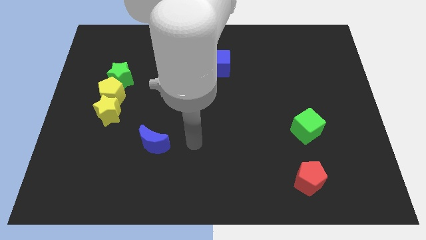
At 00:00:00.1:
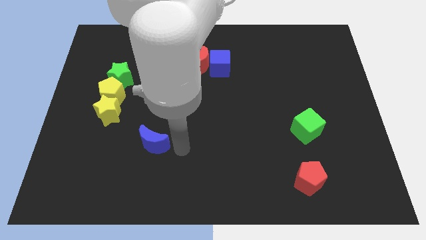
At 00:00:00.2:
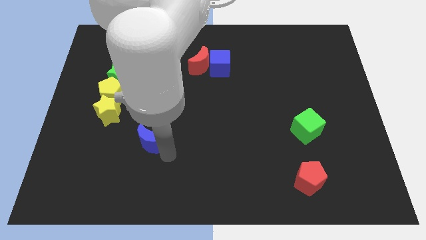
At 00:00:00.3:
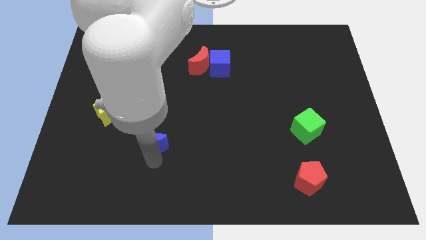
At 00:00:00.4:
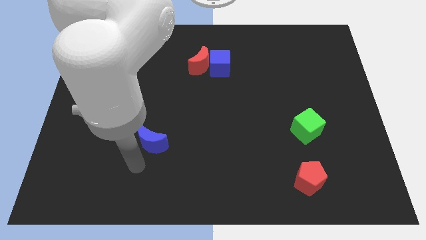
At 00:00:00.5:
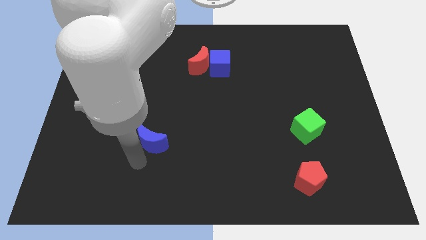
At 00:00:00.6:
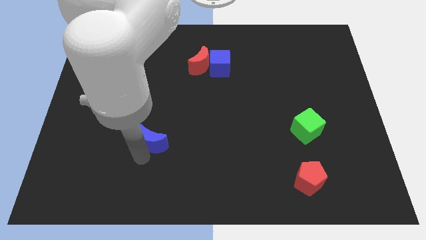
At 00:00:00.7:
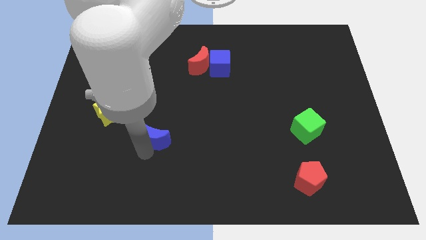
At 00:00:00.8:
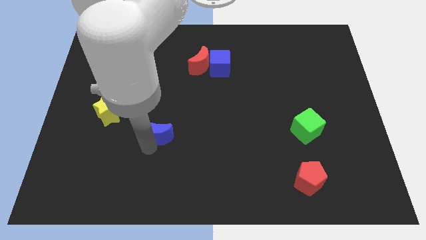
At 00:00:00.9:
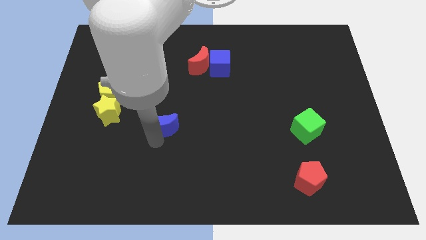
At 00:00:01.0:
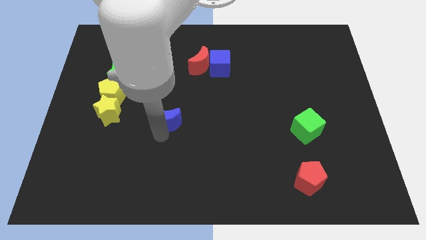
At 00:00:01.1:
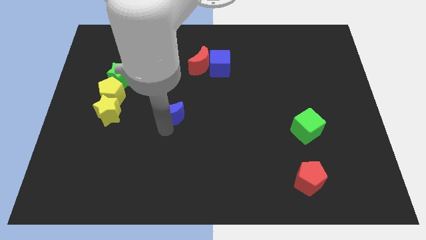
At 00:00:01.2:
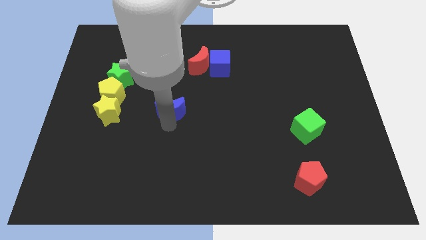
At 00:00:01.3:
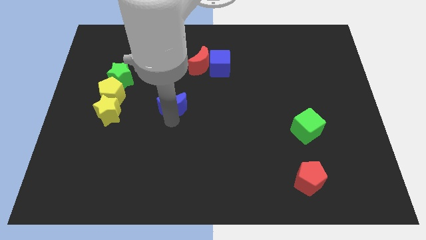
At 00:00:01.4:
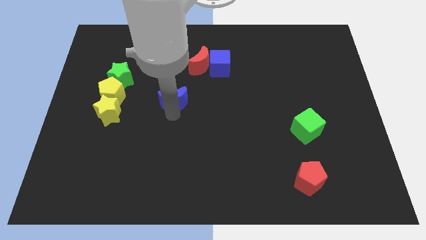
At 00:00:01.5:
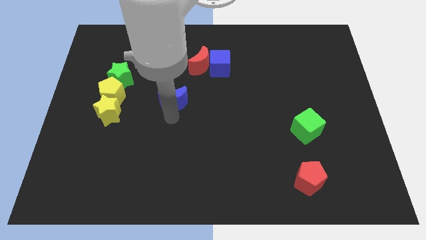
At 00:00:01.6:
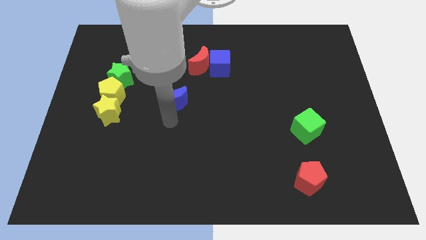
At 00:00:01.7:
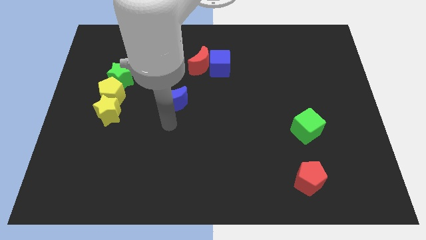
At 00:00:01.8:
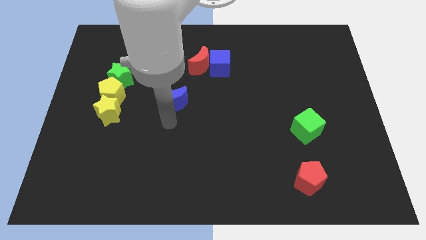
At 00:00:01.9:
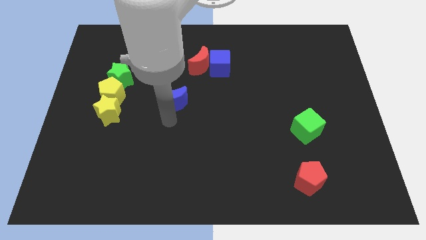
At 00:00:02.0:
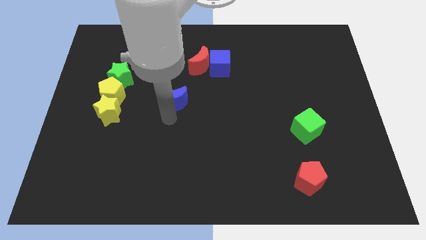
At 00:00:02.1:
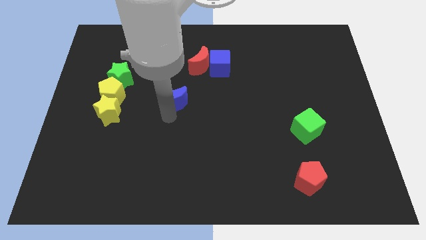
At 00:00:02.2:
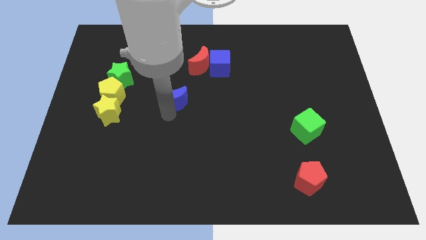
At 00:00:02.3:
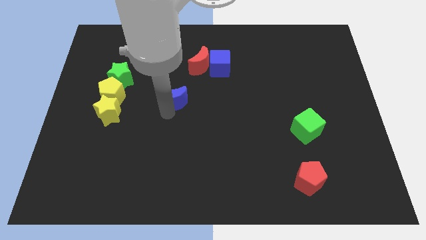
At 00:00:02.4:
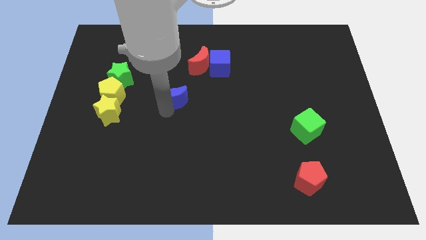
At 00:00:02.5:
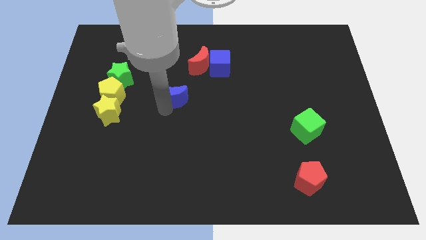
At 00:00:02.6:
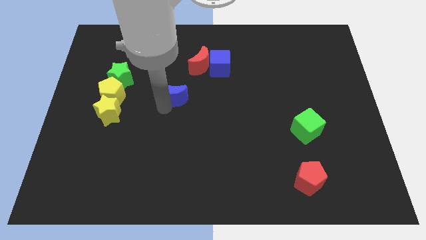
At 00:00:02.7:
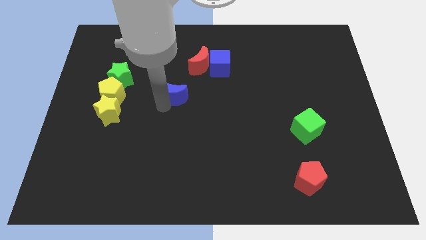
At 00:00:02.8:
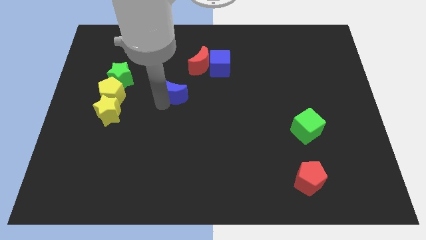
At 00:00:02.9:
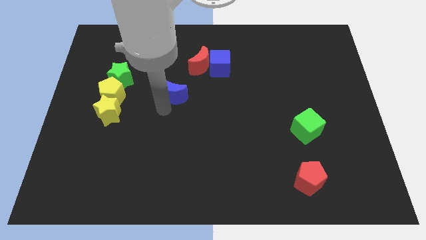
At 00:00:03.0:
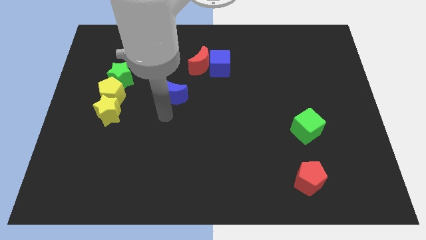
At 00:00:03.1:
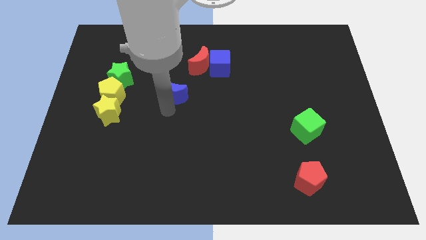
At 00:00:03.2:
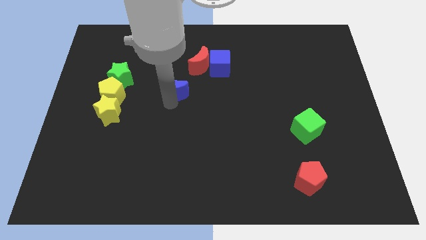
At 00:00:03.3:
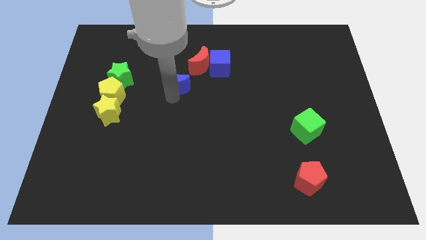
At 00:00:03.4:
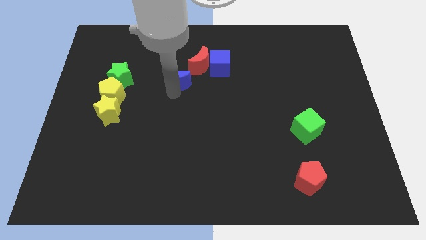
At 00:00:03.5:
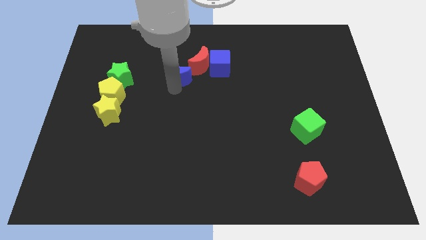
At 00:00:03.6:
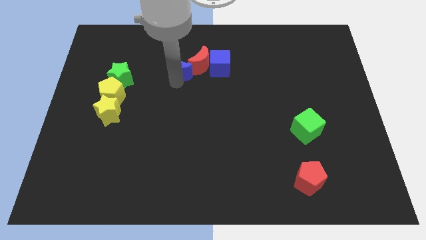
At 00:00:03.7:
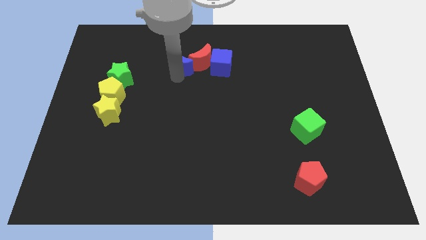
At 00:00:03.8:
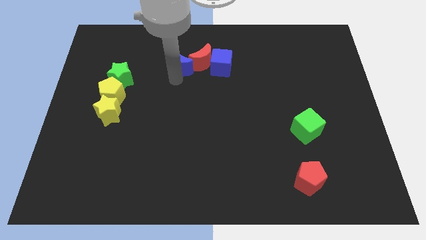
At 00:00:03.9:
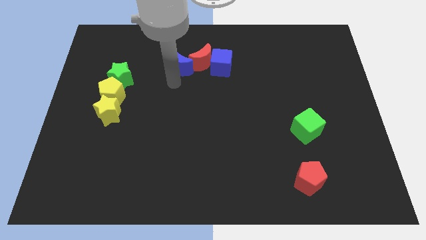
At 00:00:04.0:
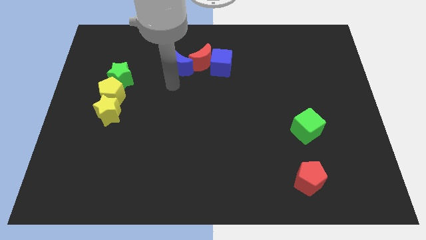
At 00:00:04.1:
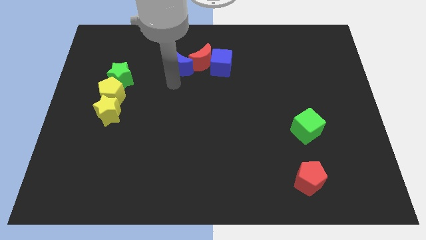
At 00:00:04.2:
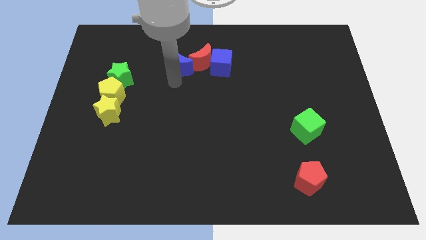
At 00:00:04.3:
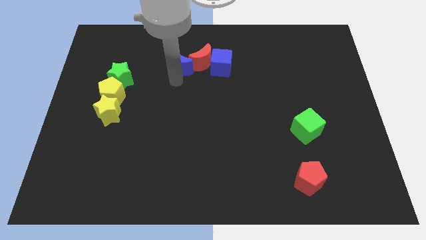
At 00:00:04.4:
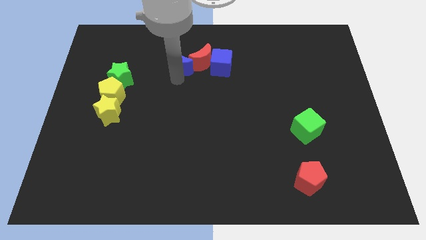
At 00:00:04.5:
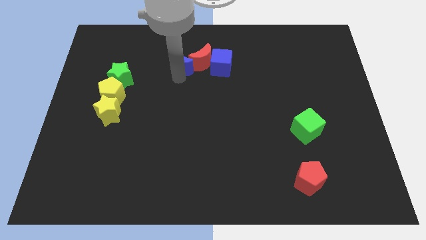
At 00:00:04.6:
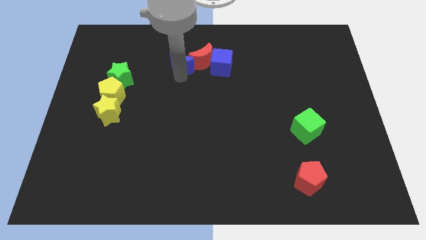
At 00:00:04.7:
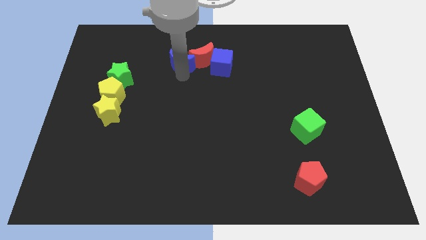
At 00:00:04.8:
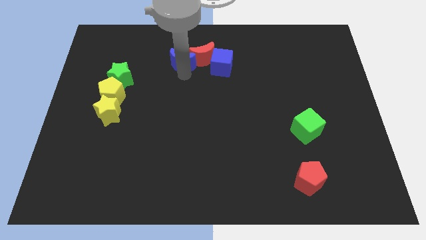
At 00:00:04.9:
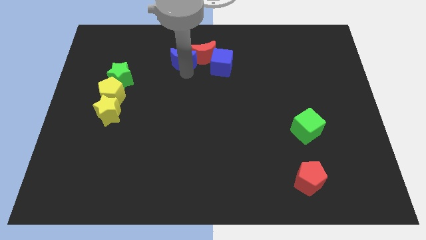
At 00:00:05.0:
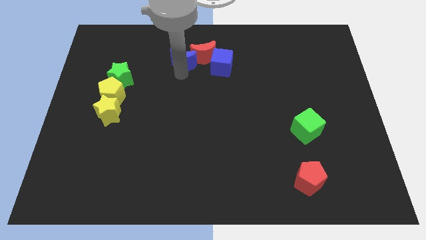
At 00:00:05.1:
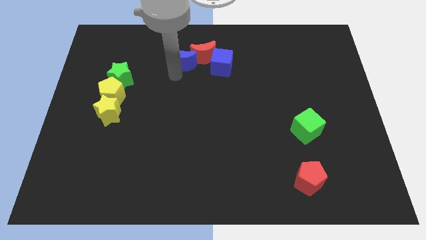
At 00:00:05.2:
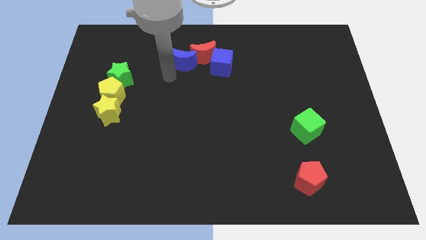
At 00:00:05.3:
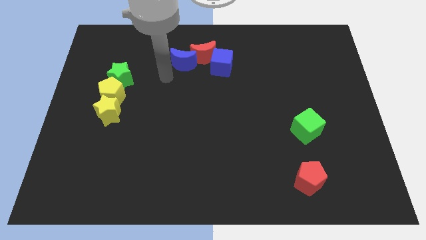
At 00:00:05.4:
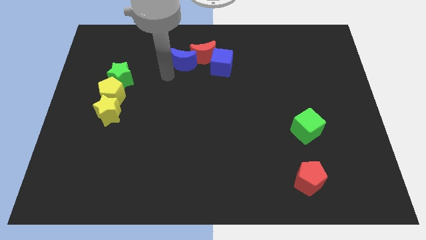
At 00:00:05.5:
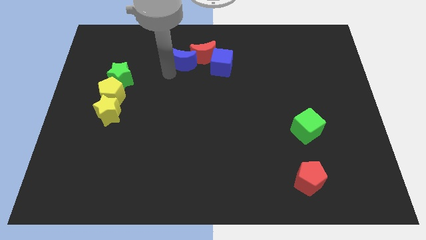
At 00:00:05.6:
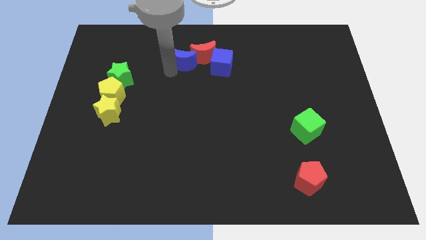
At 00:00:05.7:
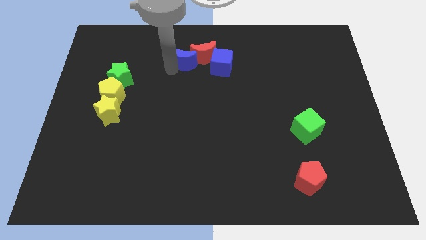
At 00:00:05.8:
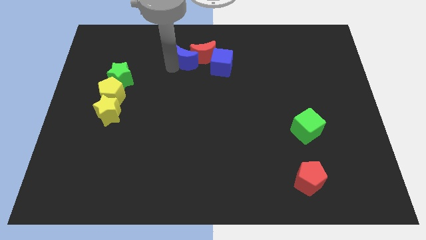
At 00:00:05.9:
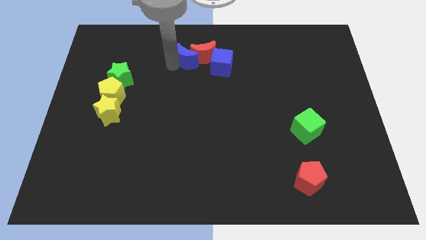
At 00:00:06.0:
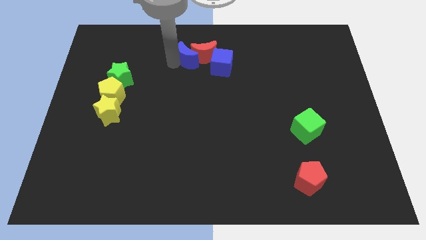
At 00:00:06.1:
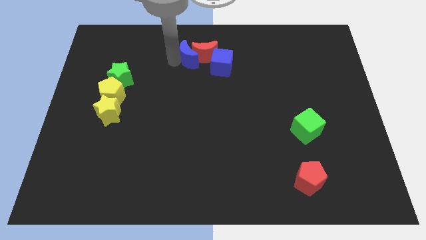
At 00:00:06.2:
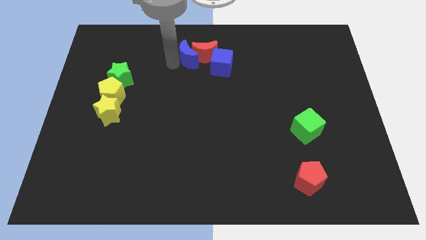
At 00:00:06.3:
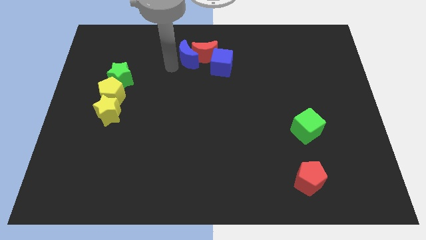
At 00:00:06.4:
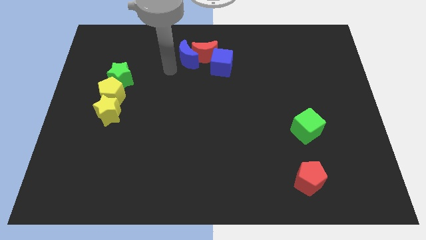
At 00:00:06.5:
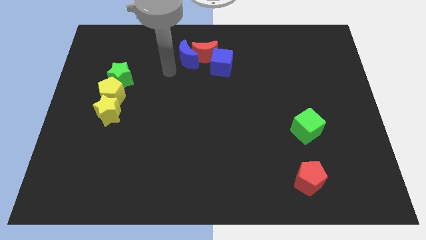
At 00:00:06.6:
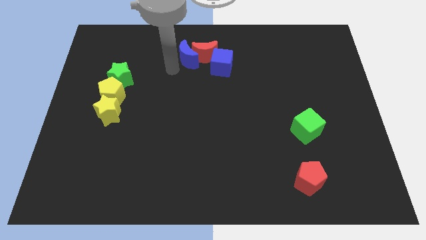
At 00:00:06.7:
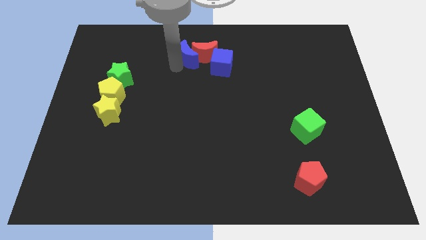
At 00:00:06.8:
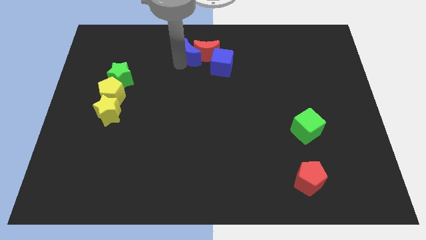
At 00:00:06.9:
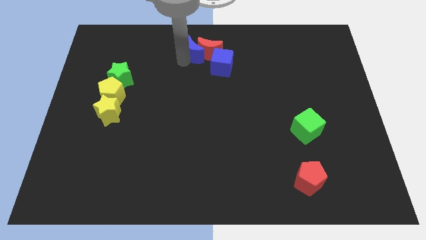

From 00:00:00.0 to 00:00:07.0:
push the blue moon to the towards your base
